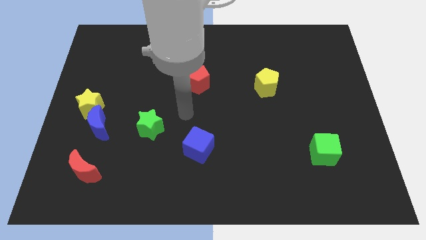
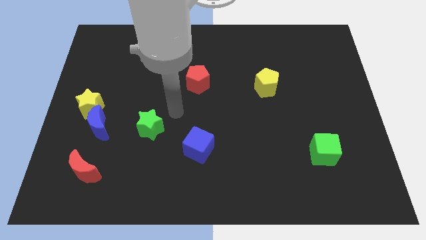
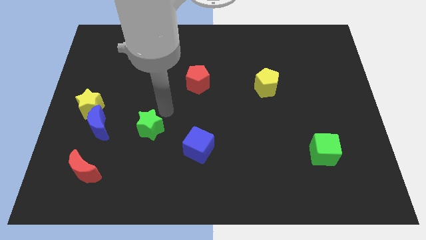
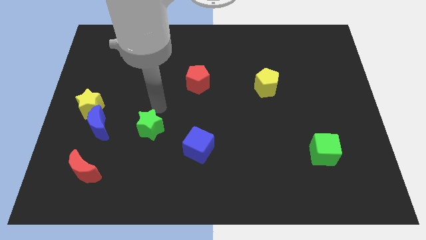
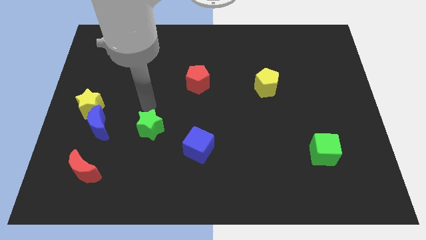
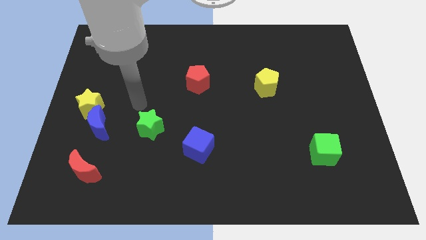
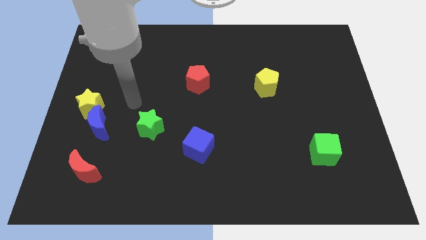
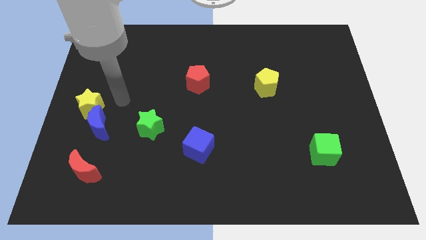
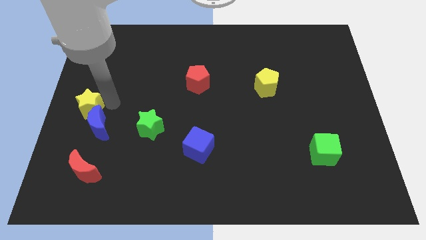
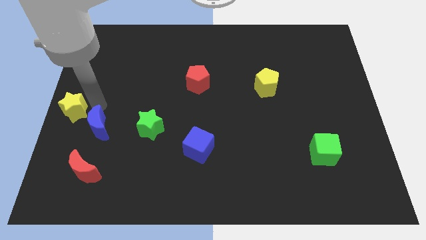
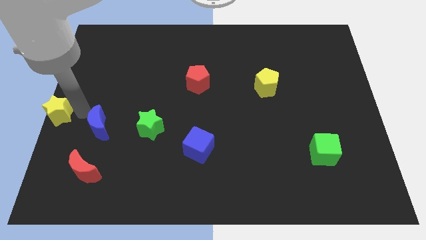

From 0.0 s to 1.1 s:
move the blue moon away from the yellow star

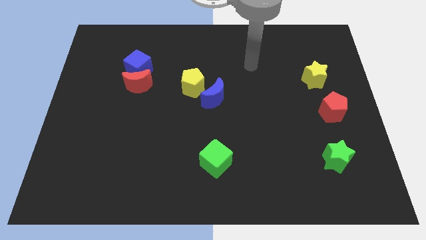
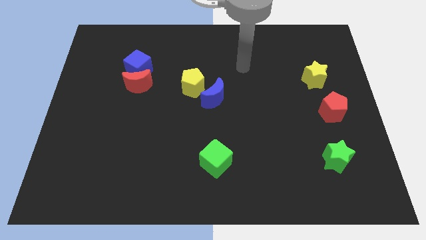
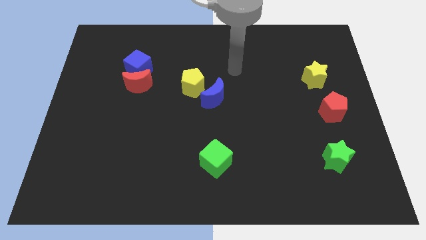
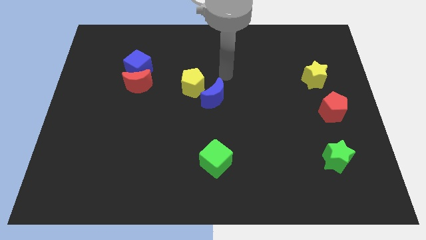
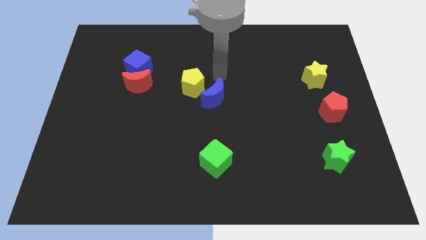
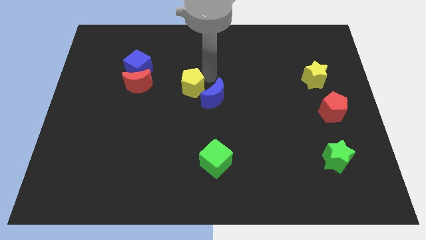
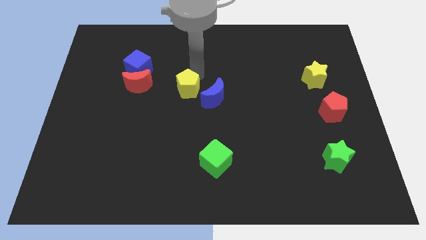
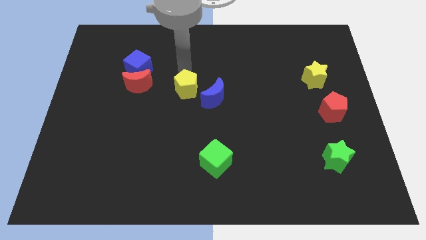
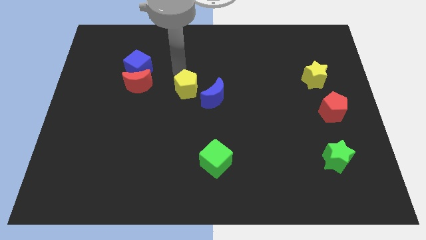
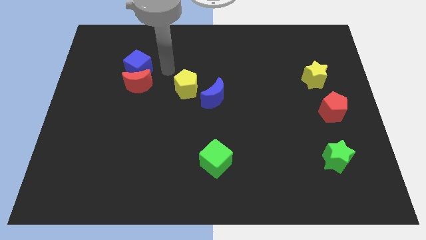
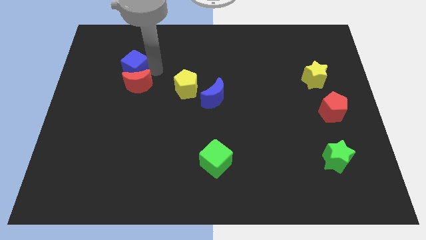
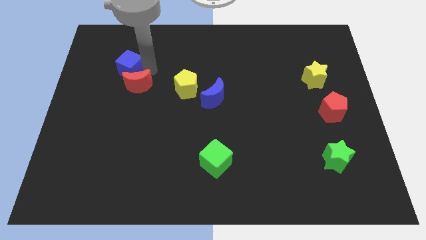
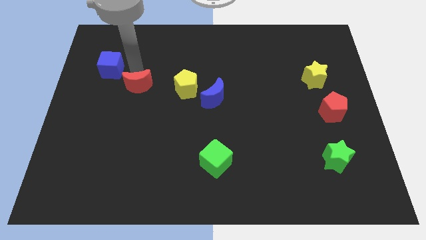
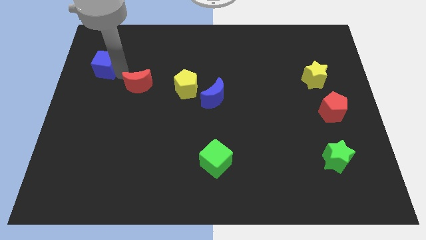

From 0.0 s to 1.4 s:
separate the red moon from the blue cube

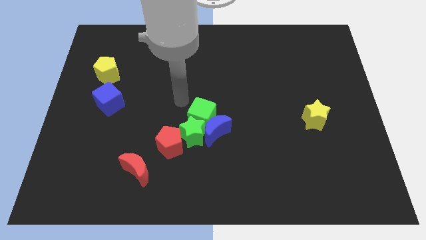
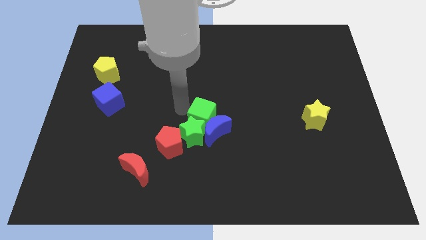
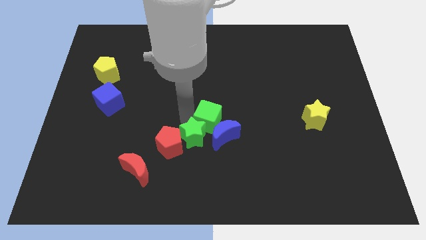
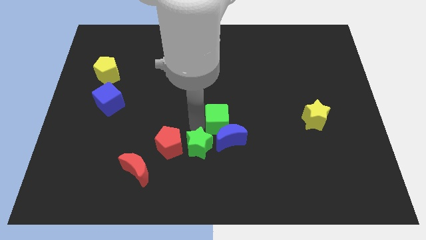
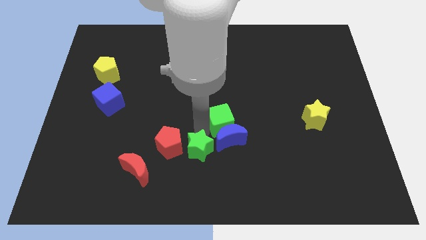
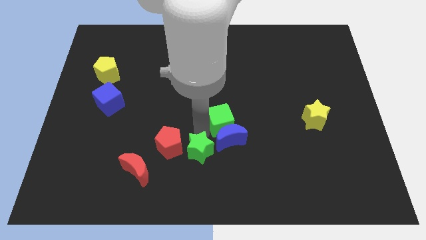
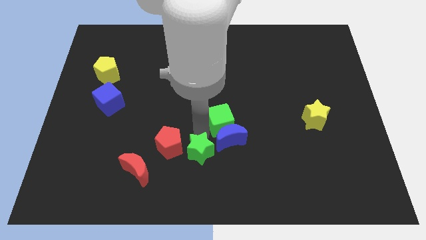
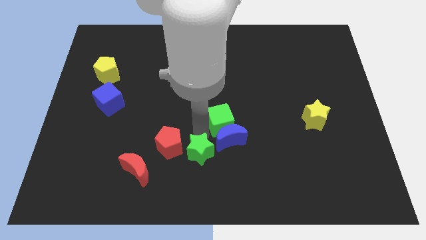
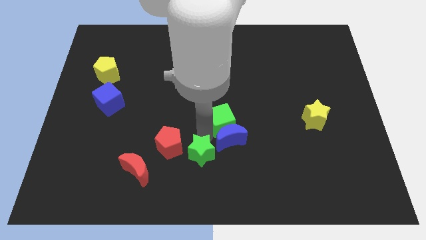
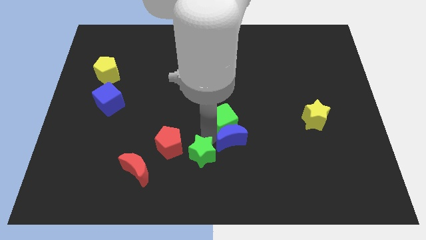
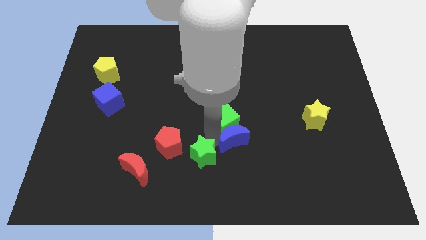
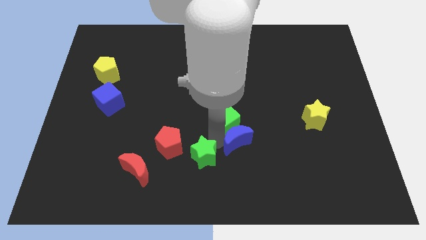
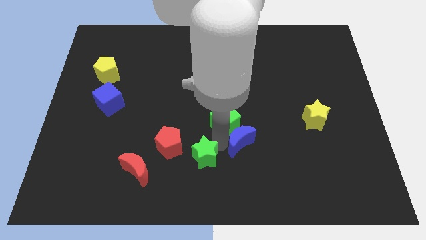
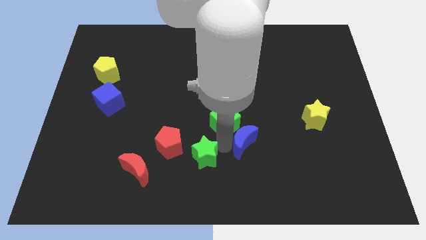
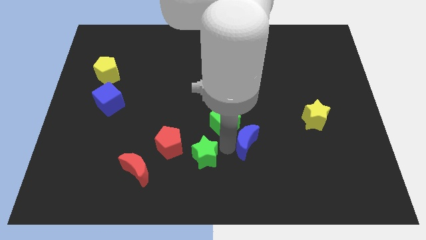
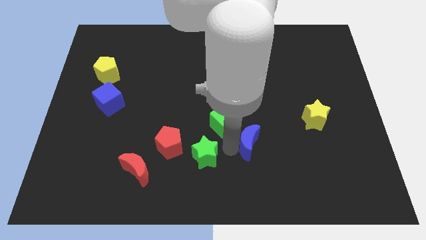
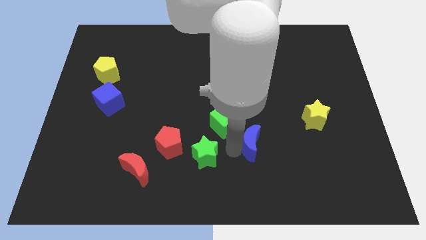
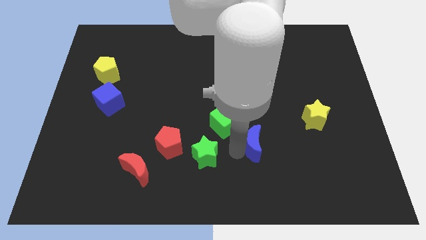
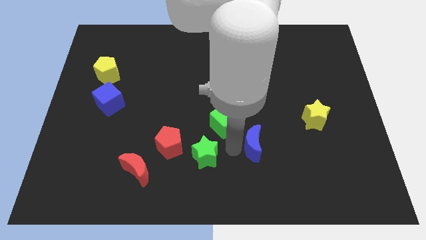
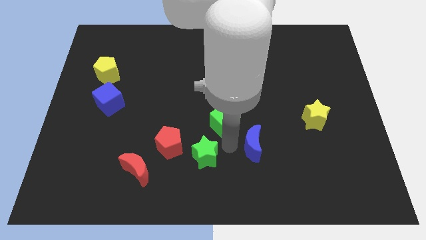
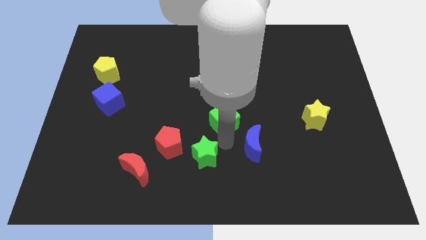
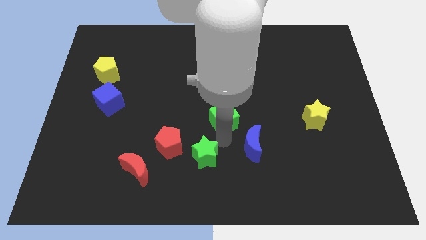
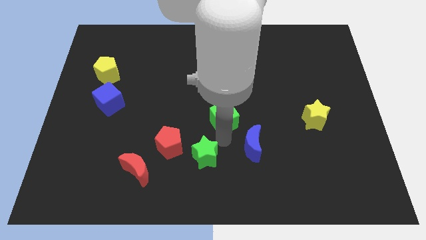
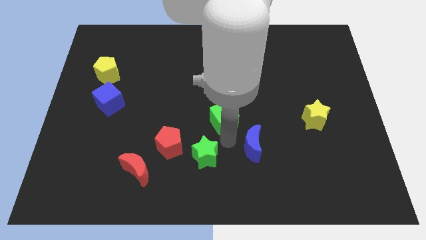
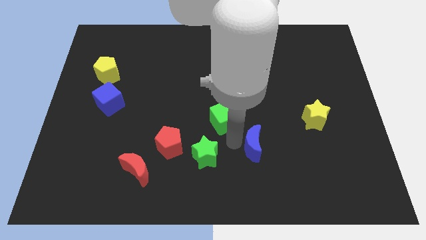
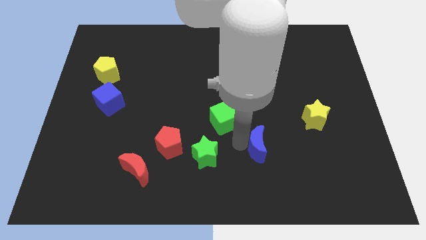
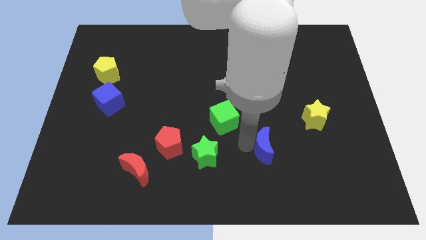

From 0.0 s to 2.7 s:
move the blue moon away from the green star and green cube

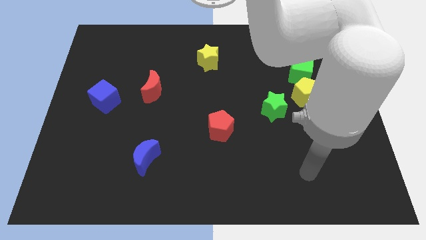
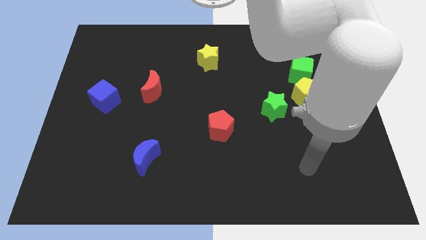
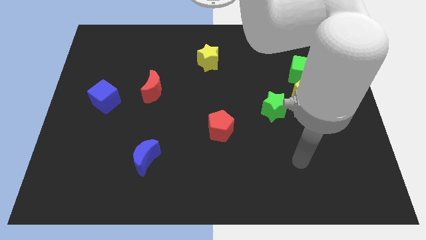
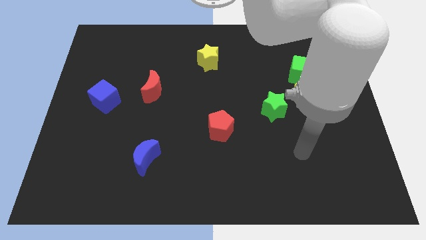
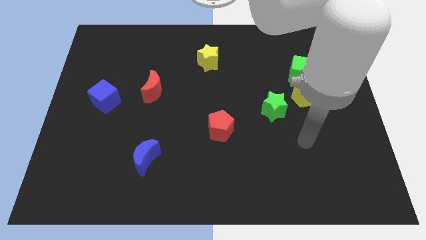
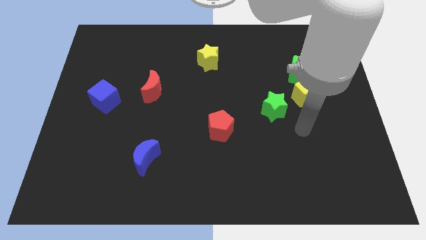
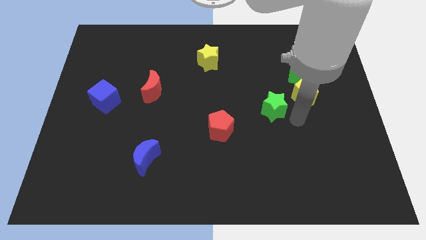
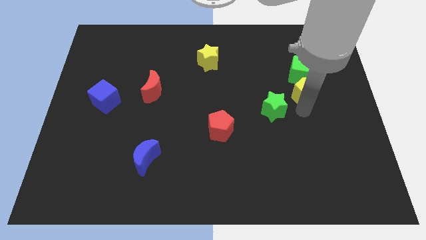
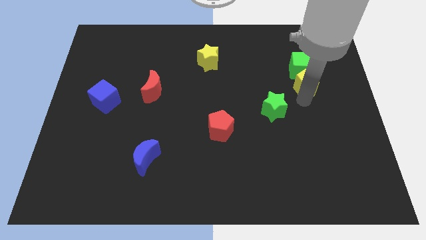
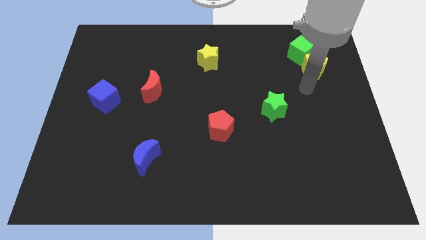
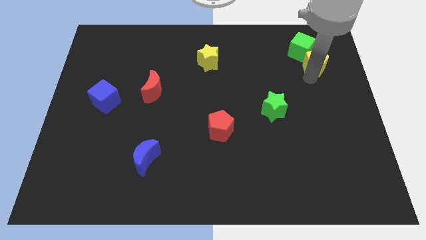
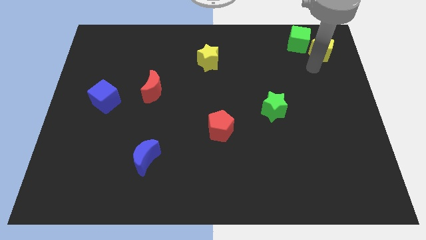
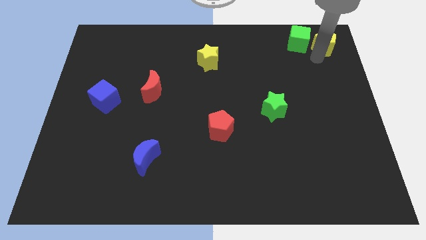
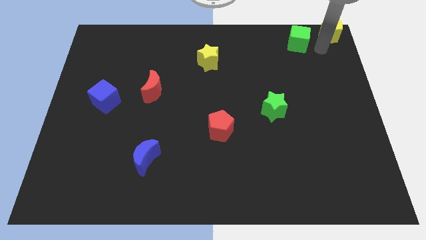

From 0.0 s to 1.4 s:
separate the green cube from the yellow pentagon

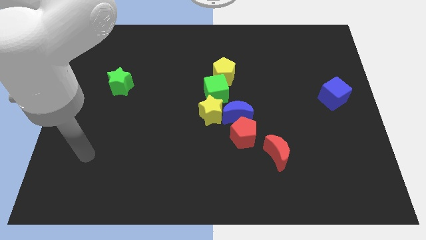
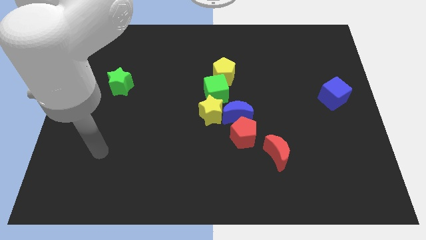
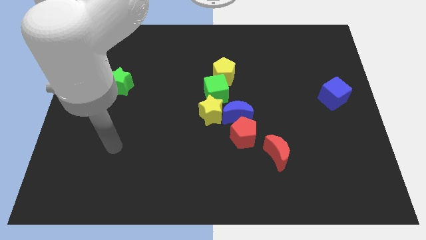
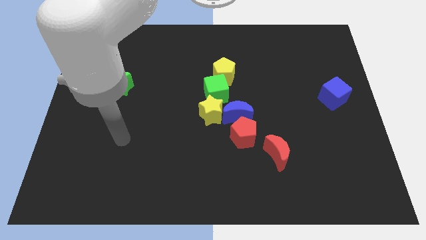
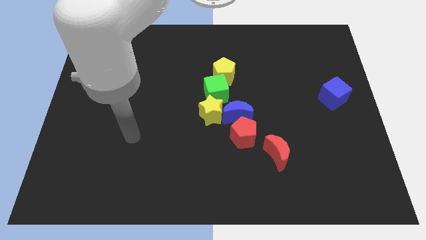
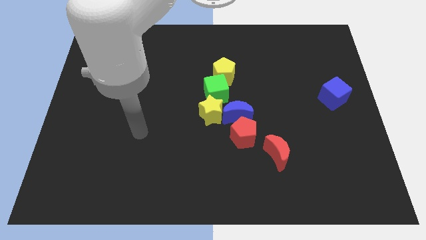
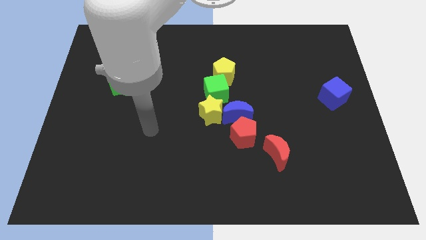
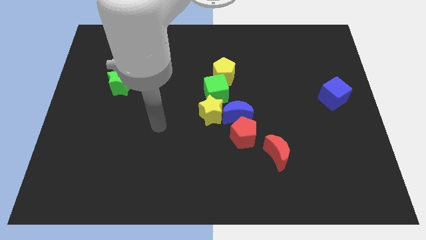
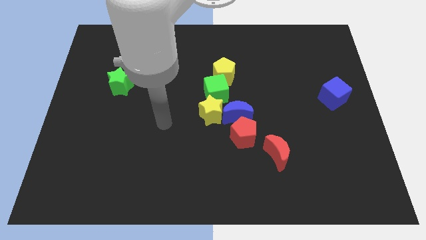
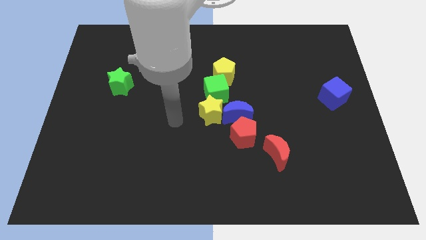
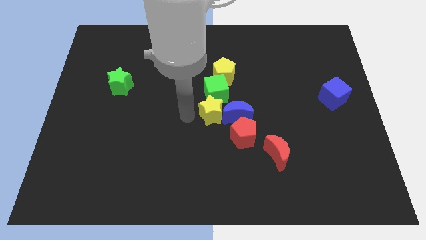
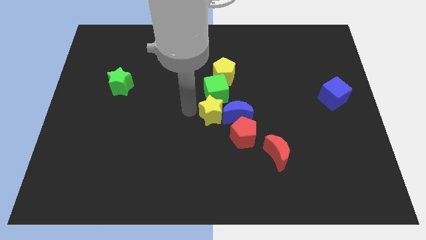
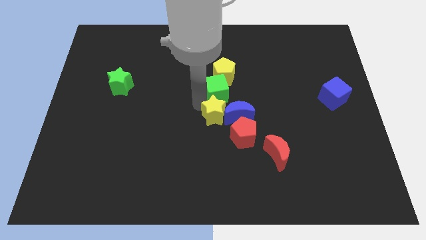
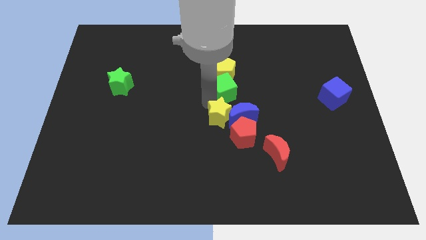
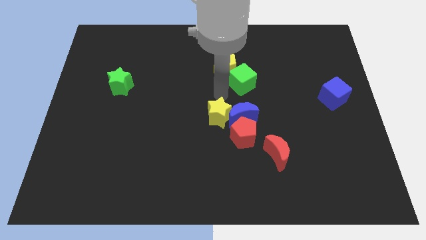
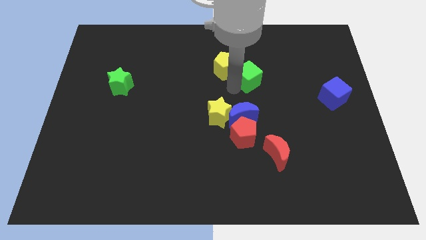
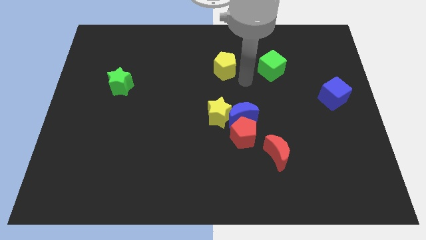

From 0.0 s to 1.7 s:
move the yellow pentagon away from the green cube

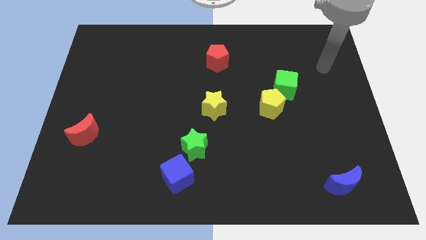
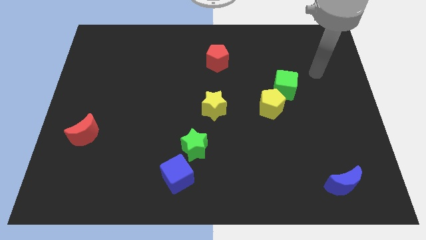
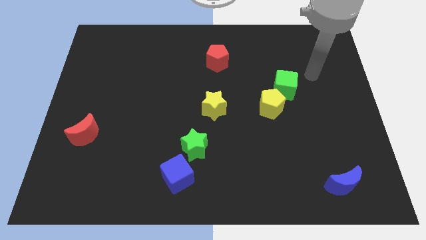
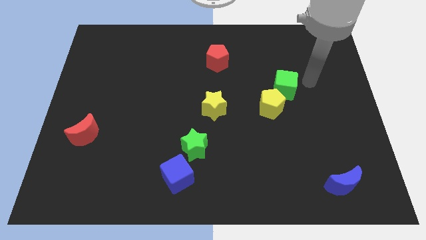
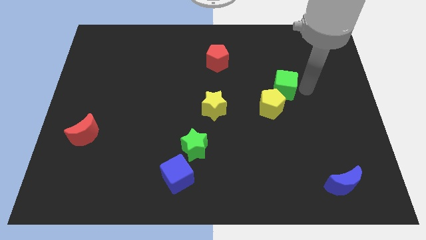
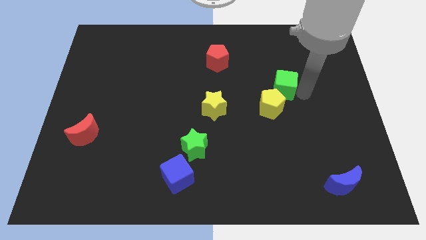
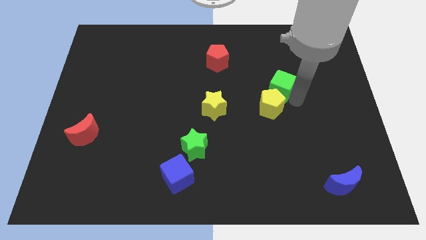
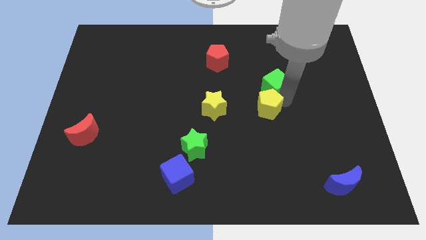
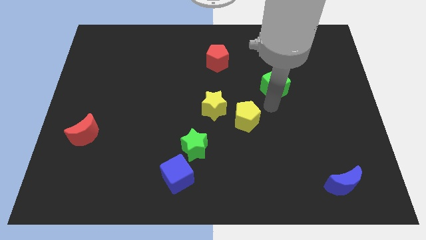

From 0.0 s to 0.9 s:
move the green cube away from the yellow pentagon
